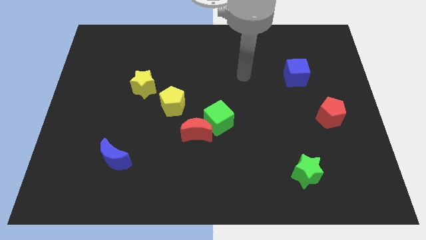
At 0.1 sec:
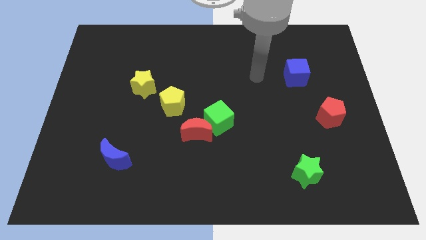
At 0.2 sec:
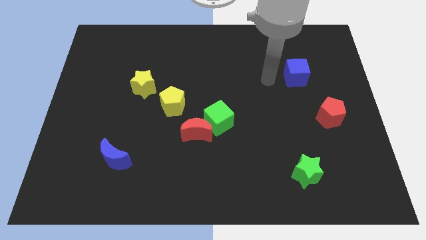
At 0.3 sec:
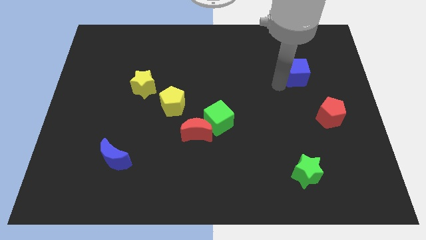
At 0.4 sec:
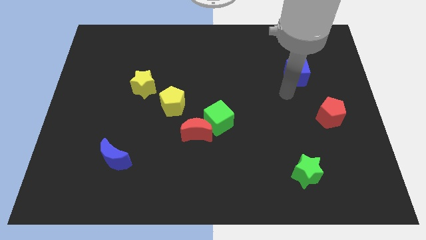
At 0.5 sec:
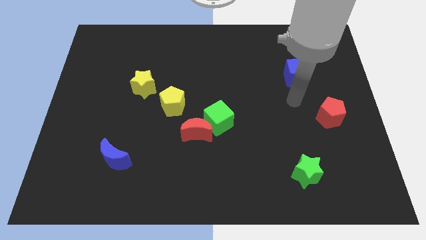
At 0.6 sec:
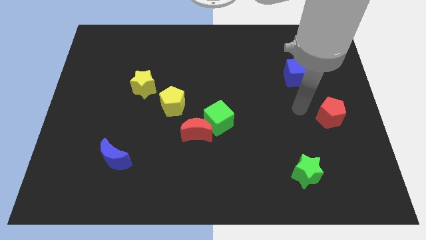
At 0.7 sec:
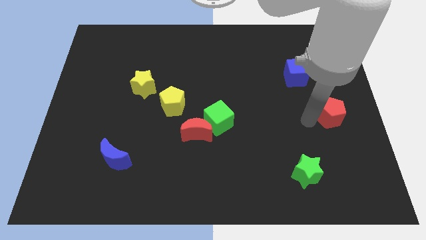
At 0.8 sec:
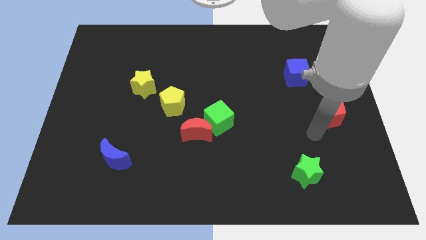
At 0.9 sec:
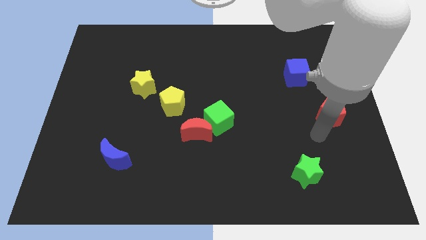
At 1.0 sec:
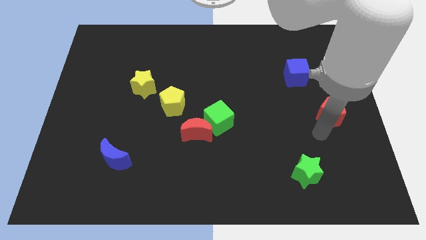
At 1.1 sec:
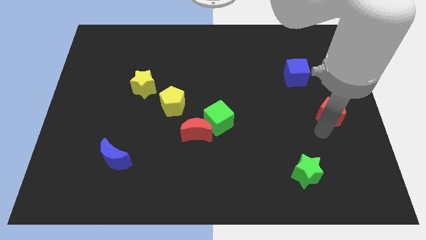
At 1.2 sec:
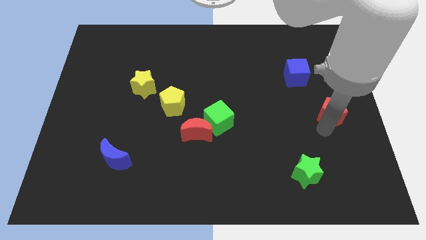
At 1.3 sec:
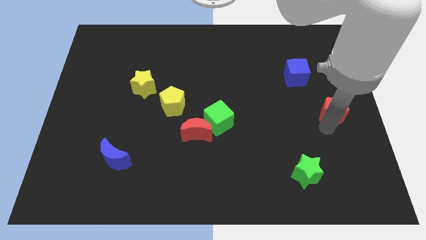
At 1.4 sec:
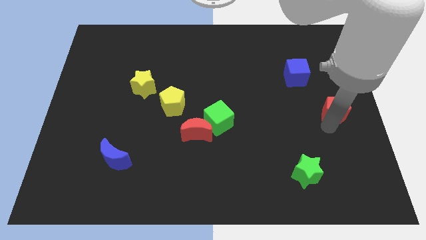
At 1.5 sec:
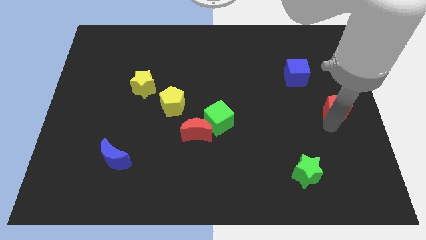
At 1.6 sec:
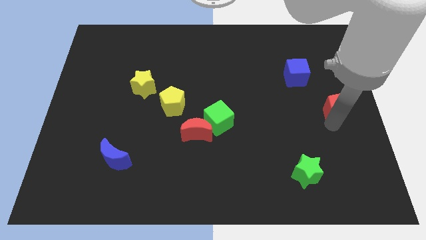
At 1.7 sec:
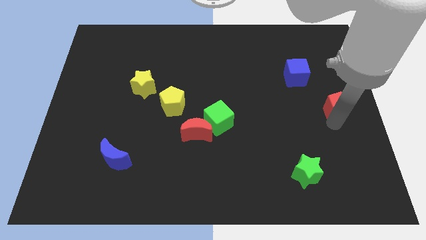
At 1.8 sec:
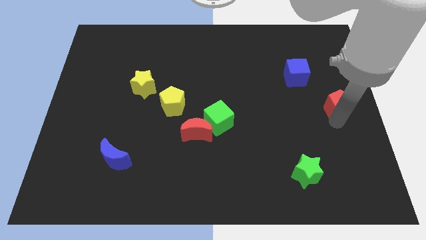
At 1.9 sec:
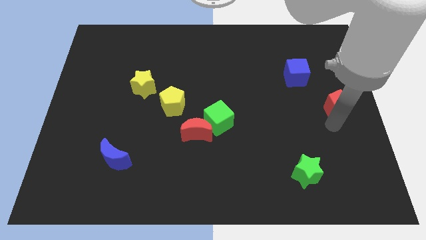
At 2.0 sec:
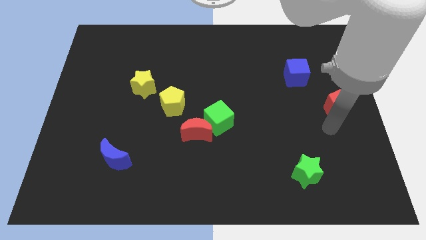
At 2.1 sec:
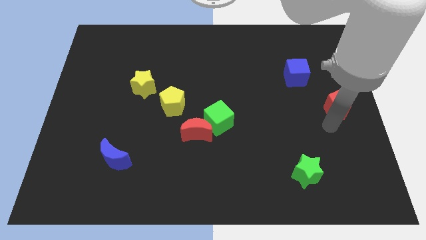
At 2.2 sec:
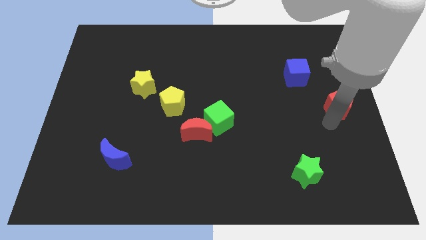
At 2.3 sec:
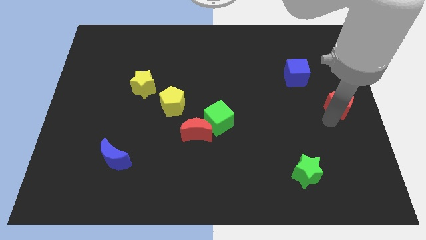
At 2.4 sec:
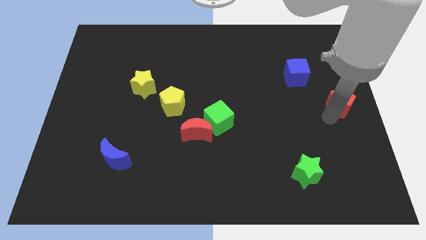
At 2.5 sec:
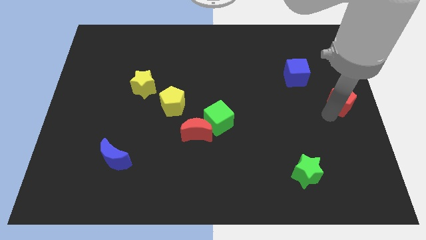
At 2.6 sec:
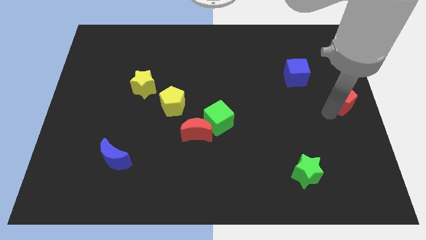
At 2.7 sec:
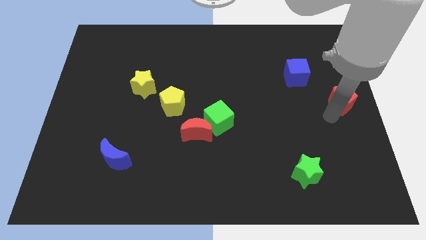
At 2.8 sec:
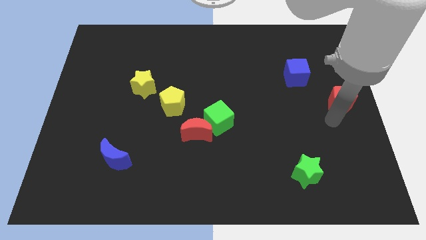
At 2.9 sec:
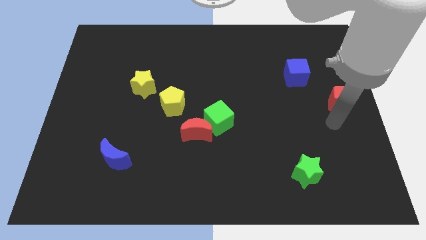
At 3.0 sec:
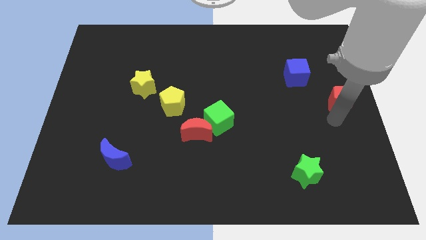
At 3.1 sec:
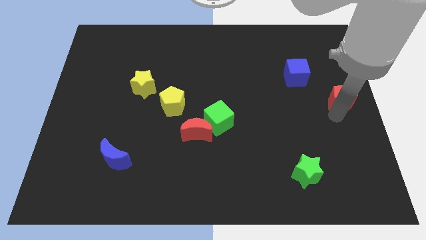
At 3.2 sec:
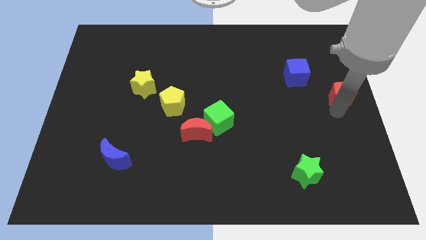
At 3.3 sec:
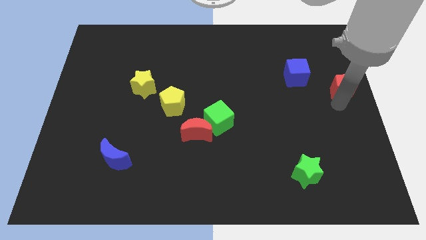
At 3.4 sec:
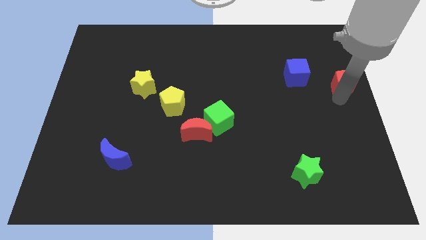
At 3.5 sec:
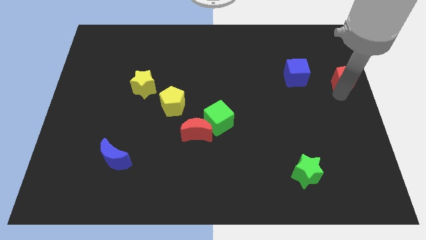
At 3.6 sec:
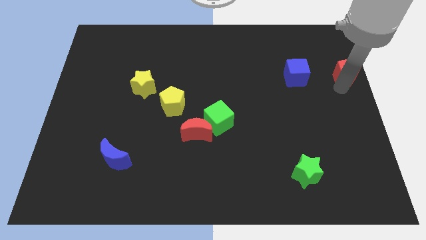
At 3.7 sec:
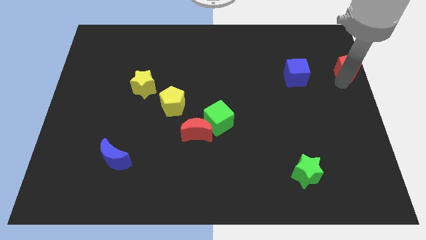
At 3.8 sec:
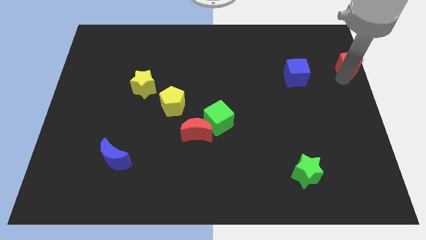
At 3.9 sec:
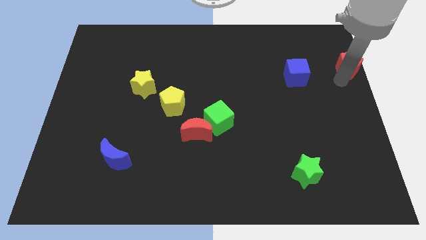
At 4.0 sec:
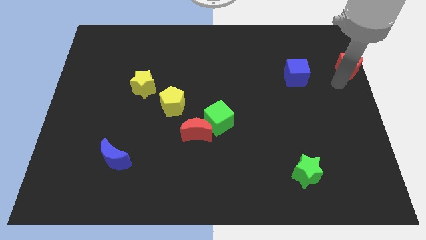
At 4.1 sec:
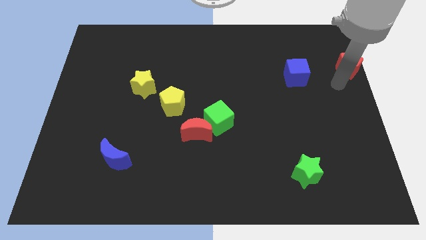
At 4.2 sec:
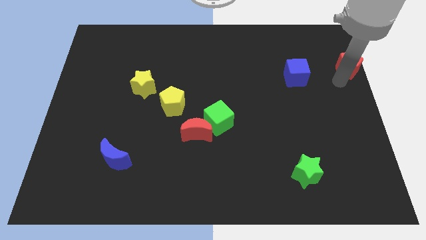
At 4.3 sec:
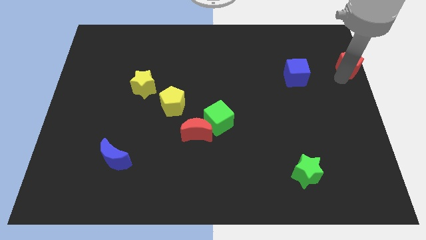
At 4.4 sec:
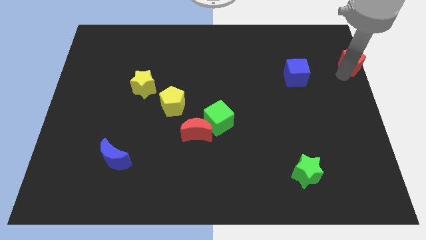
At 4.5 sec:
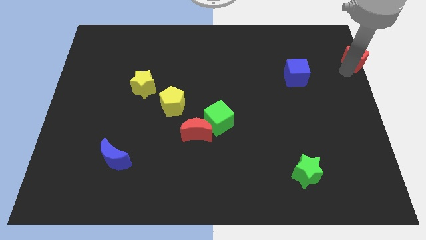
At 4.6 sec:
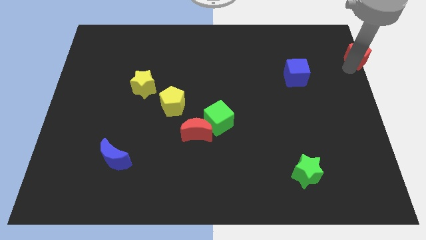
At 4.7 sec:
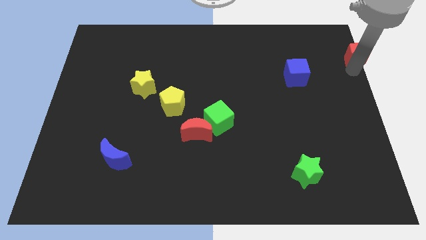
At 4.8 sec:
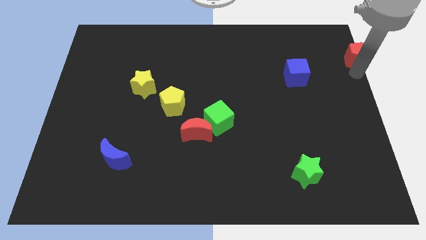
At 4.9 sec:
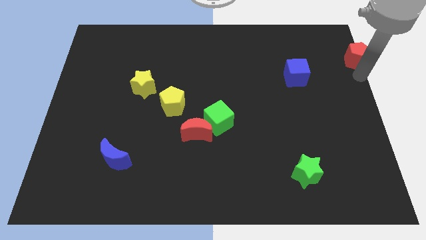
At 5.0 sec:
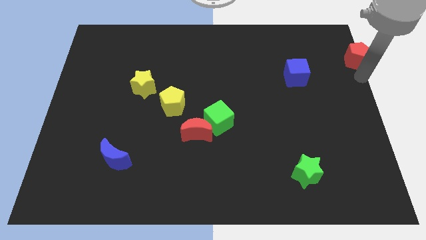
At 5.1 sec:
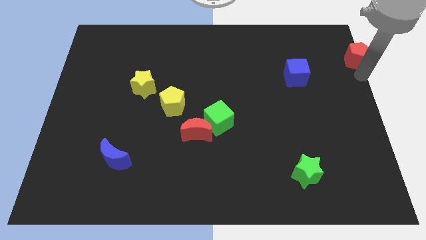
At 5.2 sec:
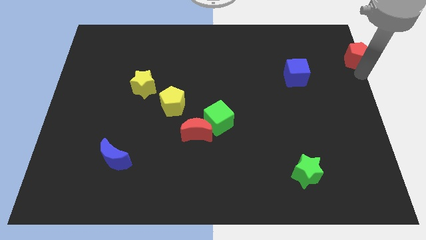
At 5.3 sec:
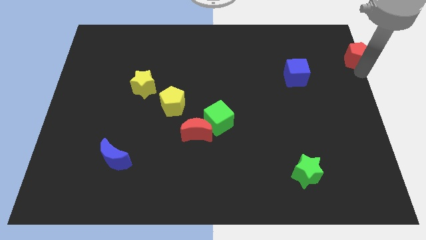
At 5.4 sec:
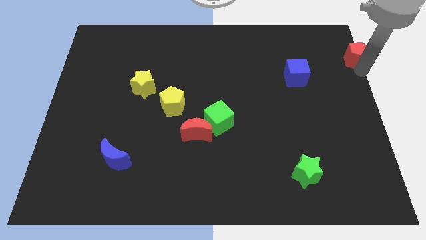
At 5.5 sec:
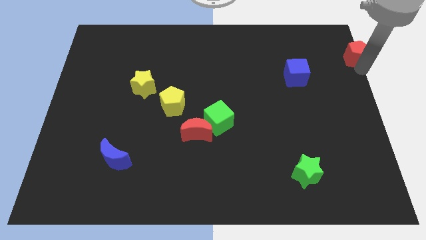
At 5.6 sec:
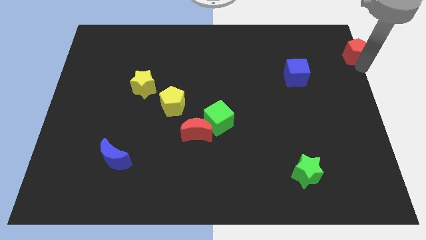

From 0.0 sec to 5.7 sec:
move the red pentagon to the top right
